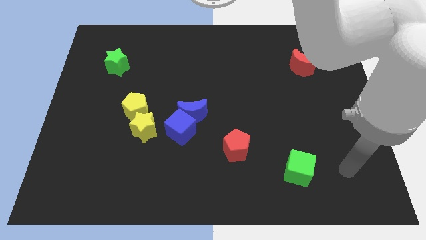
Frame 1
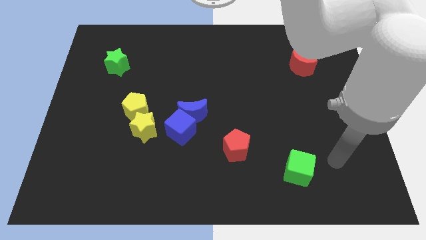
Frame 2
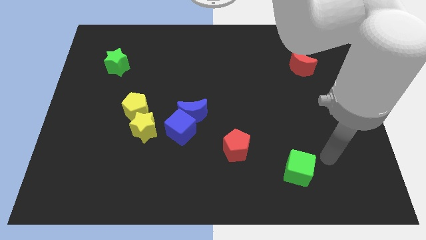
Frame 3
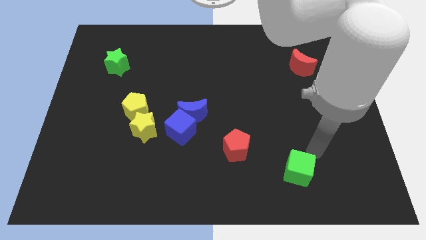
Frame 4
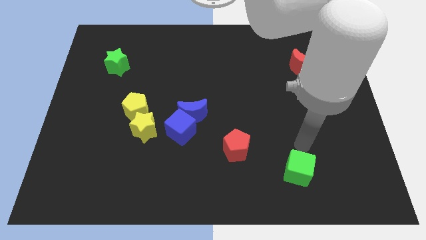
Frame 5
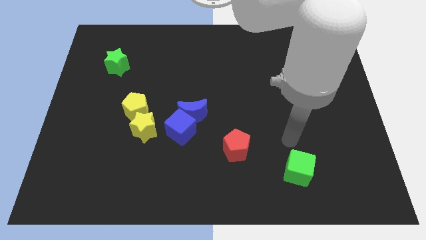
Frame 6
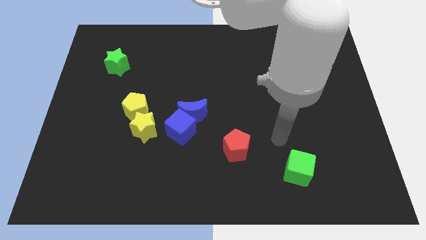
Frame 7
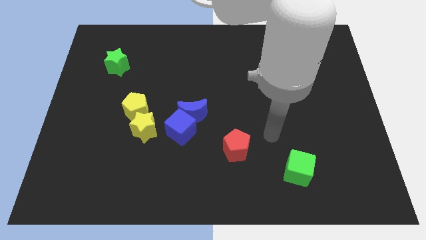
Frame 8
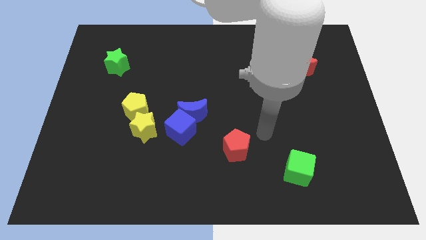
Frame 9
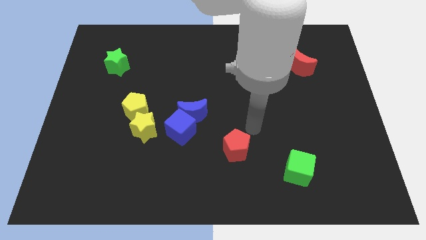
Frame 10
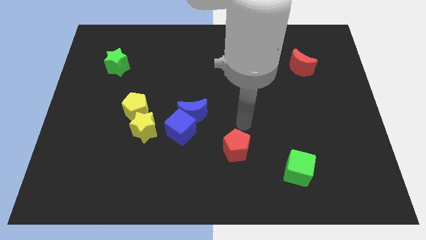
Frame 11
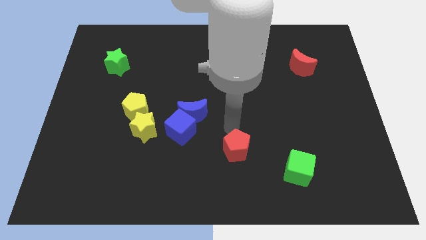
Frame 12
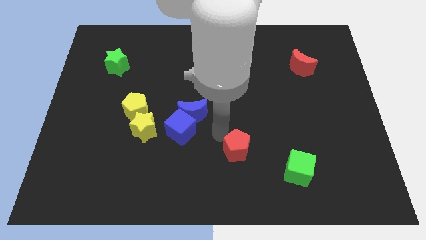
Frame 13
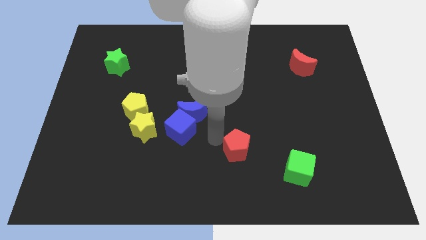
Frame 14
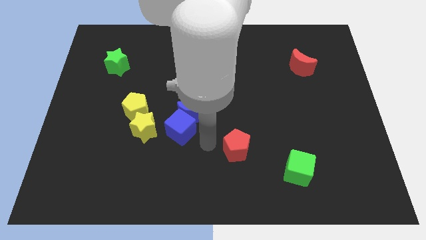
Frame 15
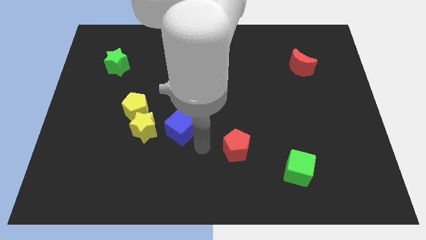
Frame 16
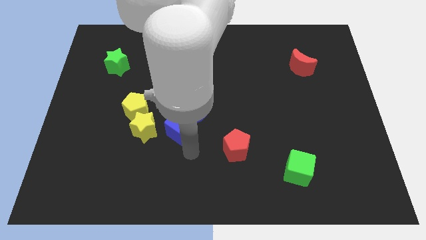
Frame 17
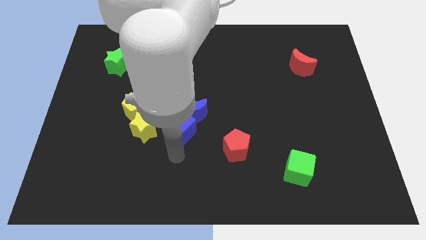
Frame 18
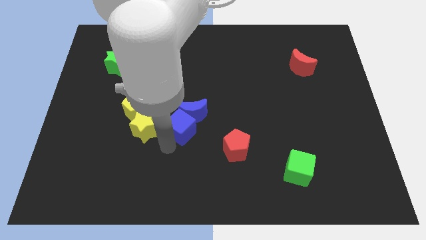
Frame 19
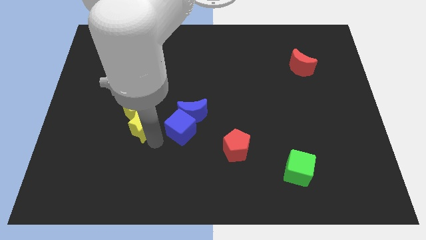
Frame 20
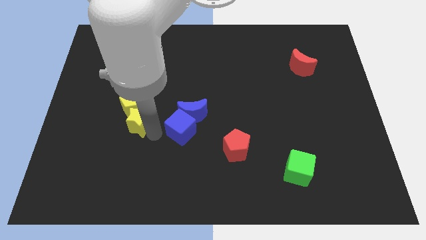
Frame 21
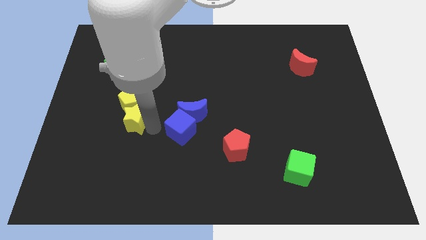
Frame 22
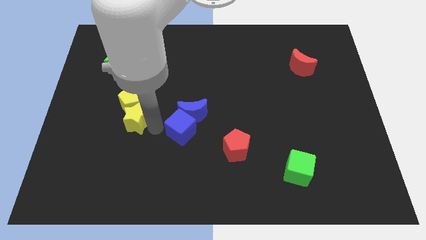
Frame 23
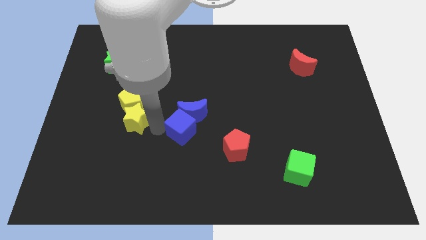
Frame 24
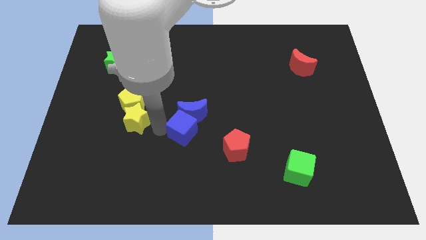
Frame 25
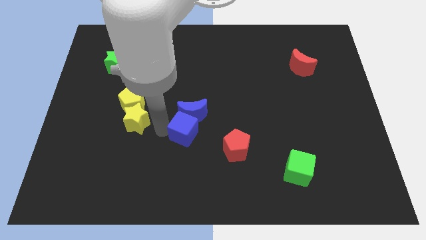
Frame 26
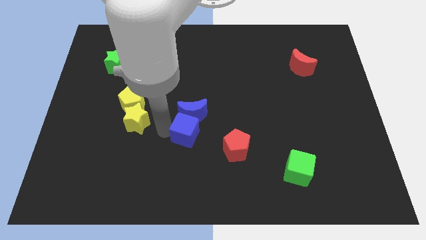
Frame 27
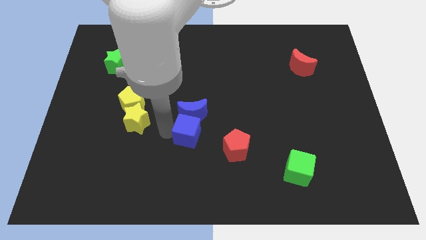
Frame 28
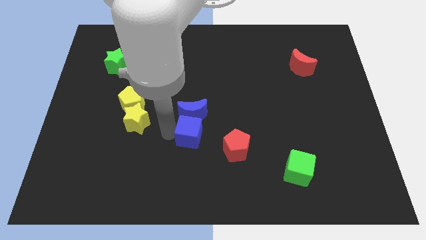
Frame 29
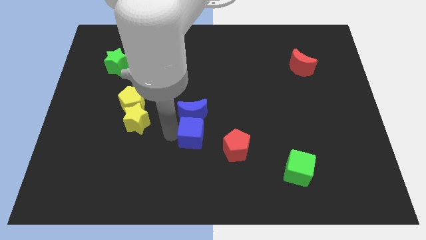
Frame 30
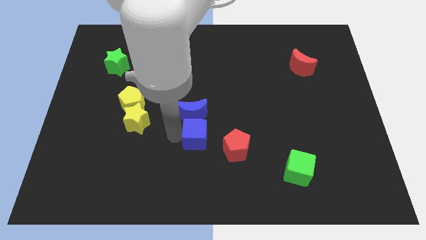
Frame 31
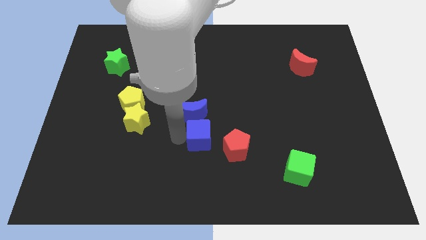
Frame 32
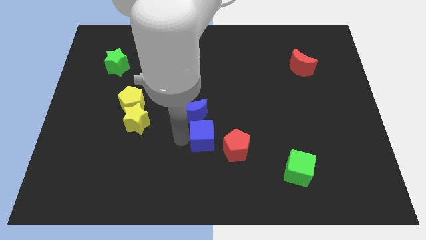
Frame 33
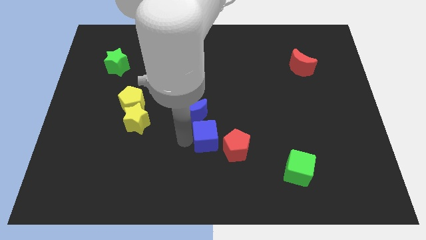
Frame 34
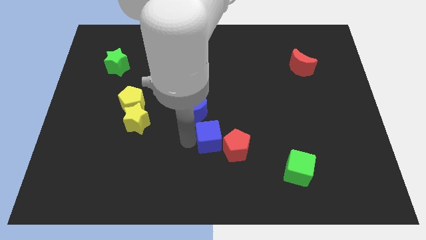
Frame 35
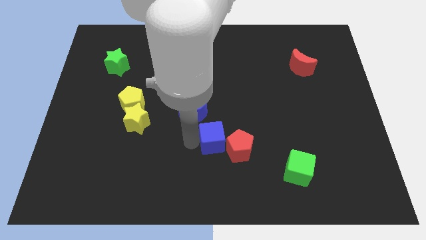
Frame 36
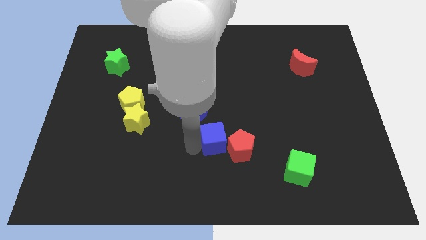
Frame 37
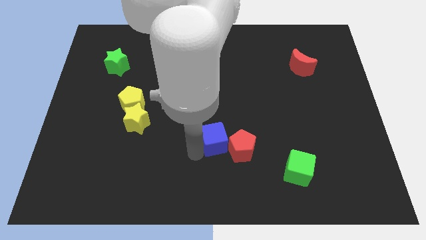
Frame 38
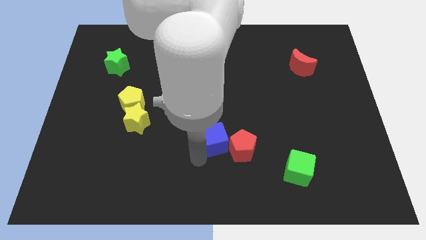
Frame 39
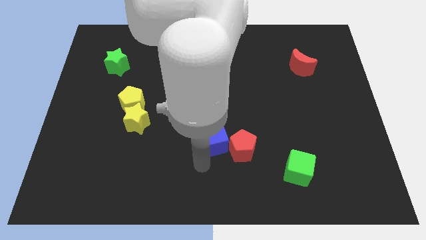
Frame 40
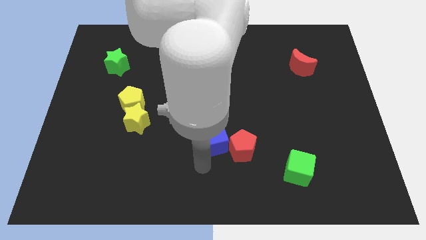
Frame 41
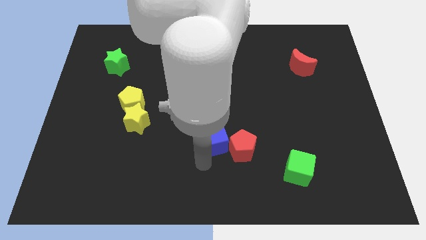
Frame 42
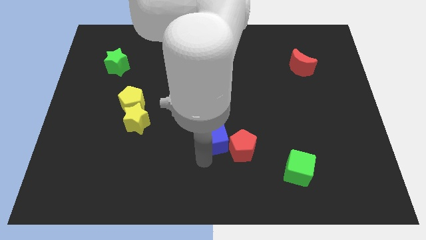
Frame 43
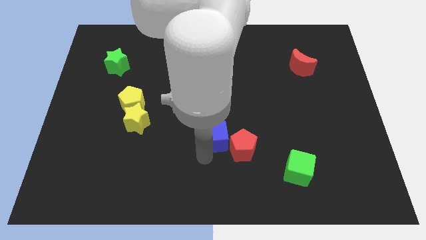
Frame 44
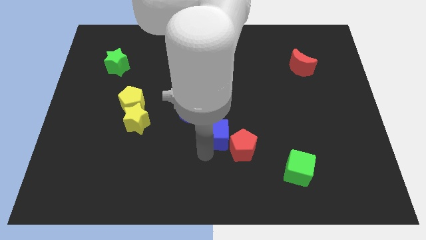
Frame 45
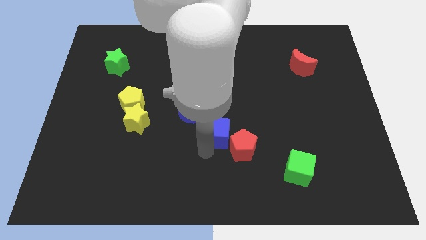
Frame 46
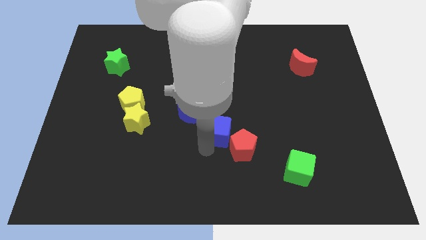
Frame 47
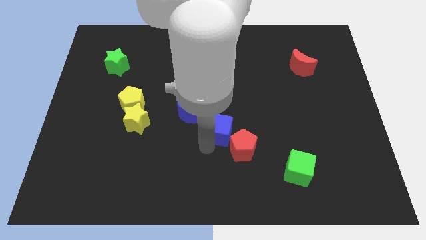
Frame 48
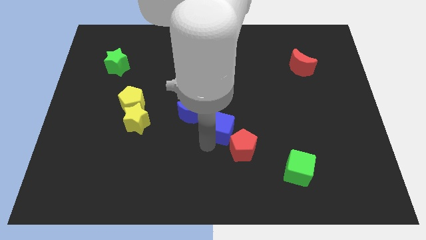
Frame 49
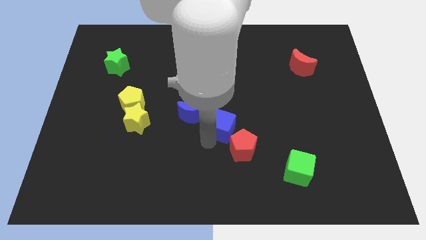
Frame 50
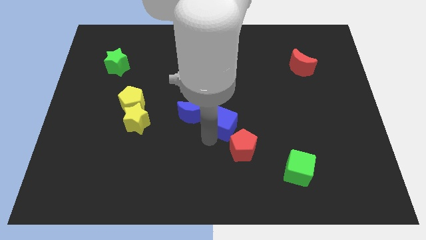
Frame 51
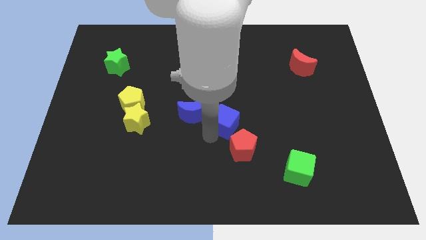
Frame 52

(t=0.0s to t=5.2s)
push the blue cube a little upwards and then right

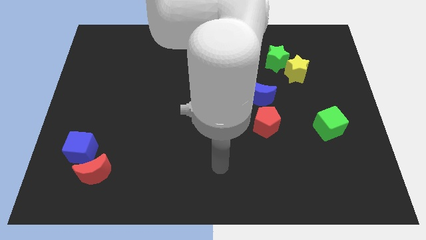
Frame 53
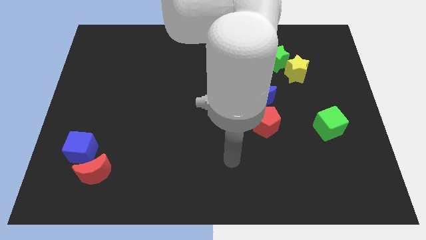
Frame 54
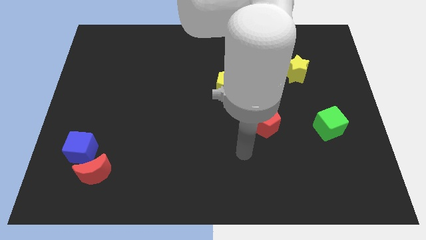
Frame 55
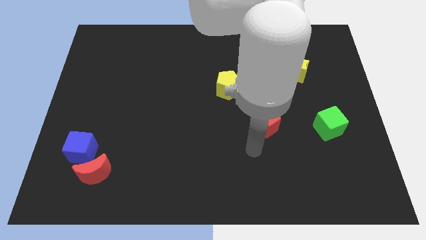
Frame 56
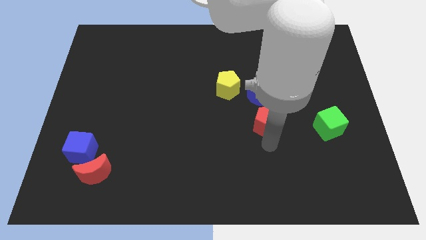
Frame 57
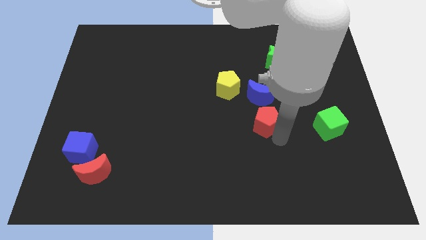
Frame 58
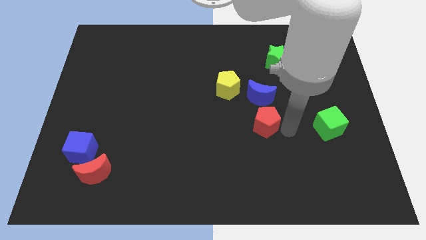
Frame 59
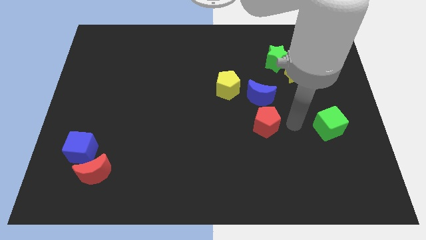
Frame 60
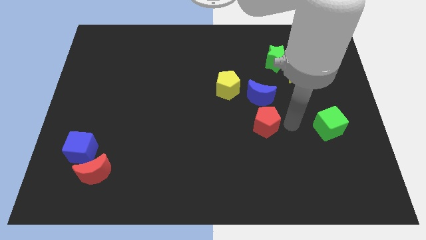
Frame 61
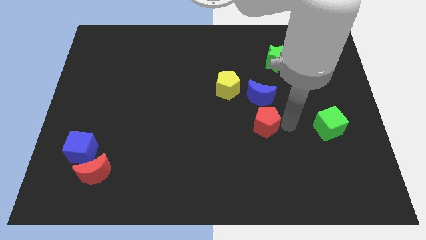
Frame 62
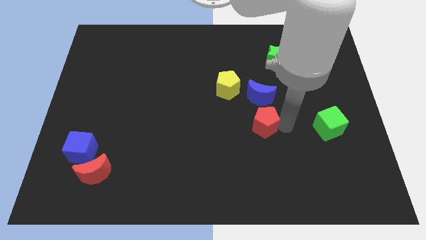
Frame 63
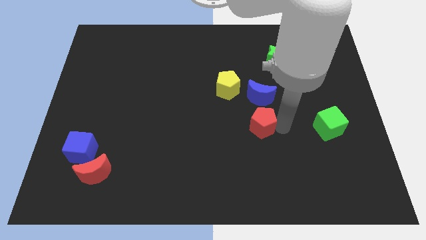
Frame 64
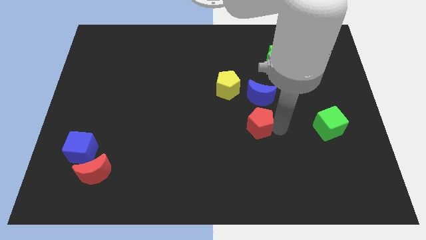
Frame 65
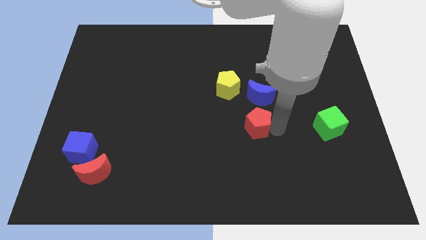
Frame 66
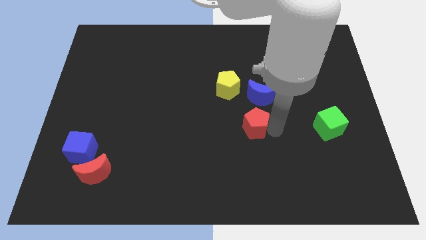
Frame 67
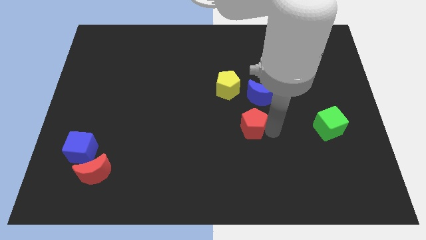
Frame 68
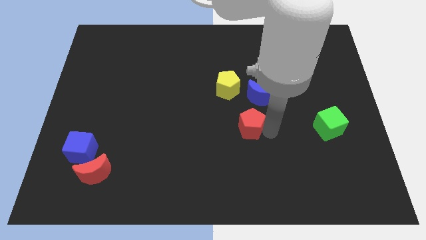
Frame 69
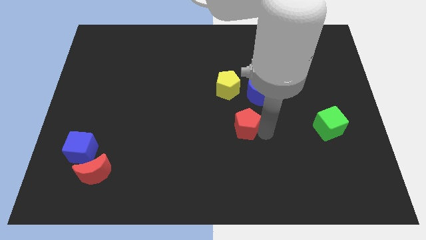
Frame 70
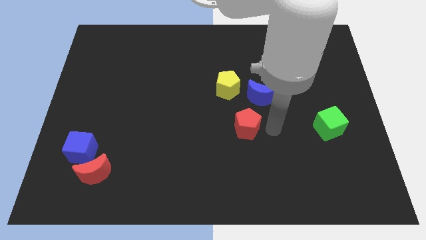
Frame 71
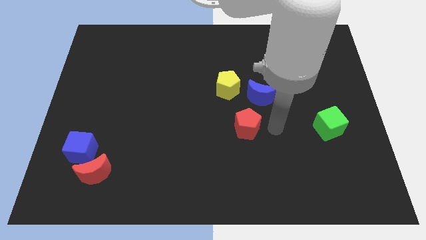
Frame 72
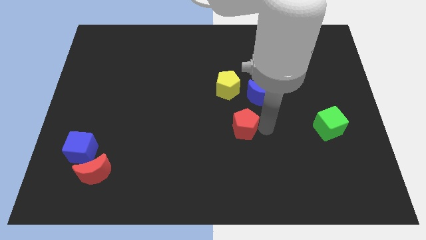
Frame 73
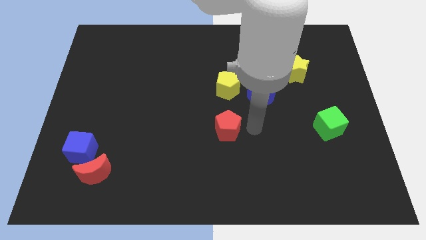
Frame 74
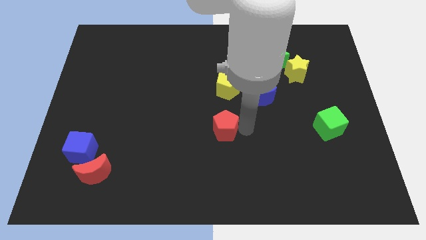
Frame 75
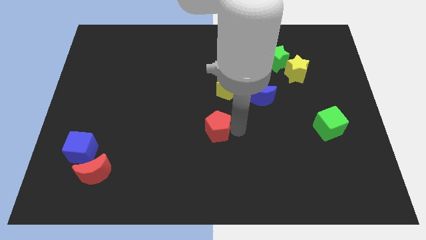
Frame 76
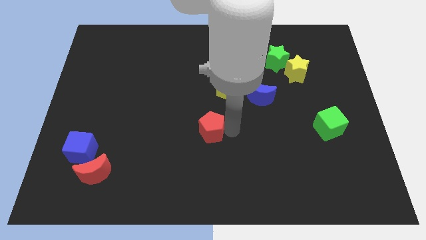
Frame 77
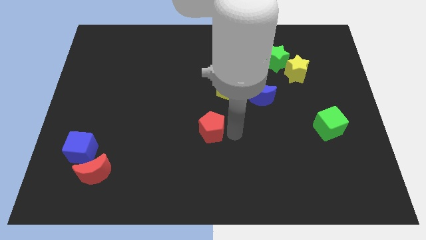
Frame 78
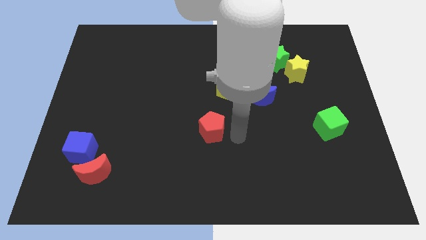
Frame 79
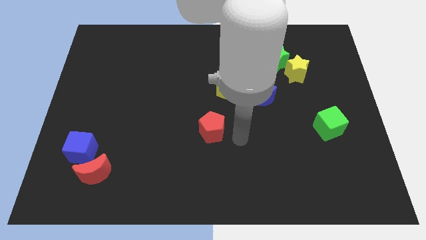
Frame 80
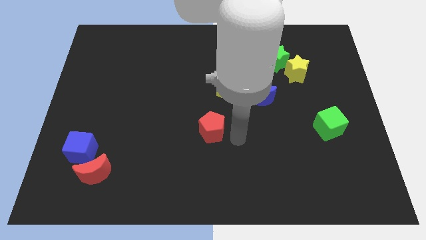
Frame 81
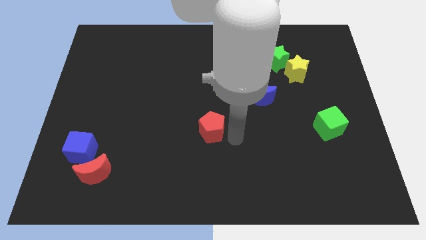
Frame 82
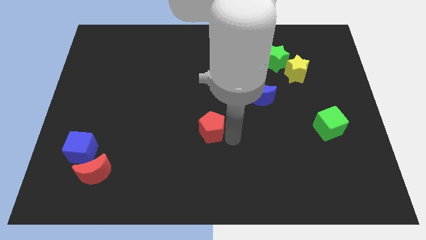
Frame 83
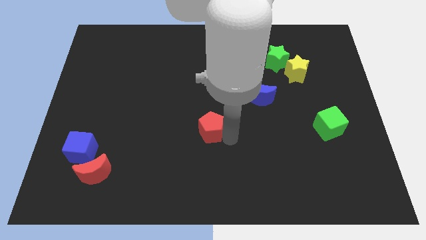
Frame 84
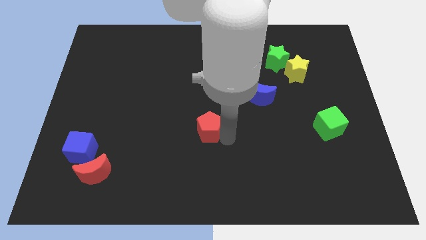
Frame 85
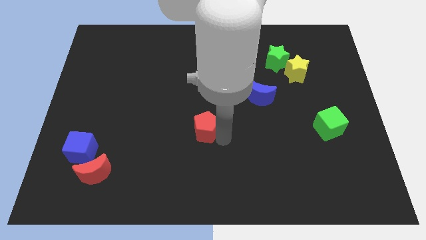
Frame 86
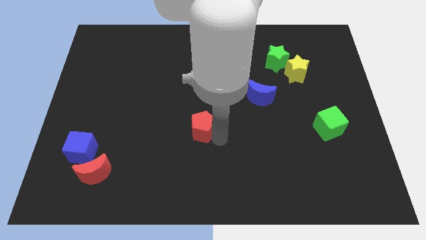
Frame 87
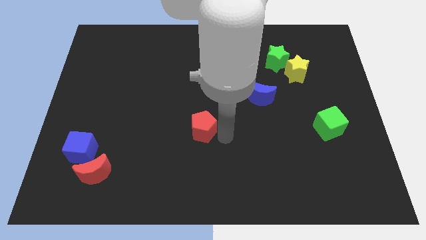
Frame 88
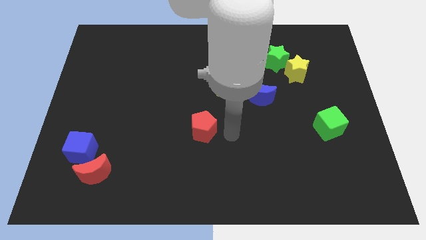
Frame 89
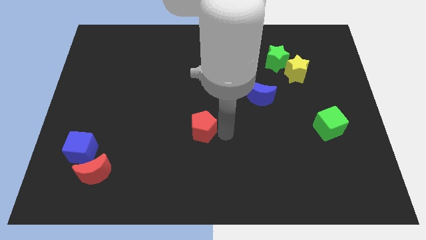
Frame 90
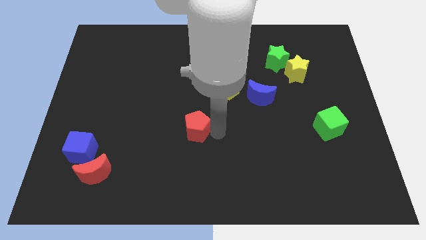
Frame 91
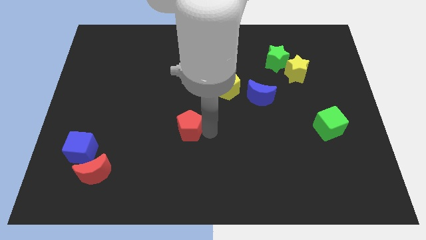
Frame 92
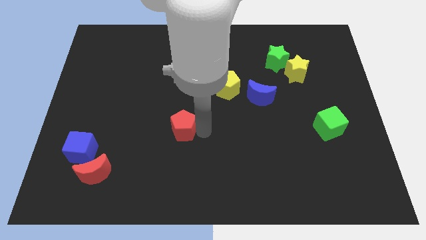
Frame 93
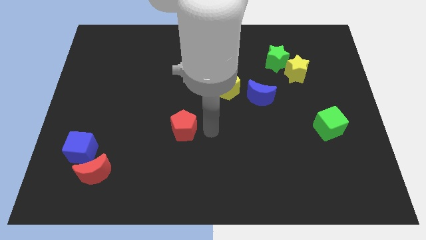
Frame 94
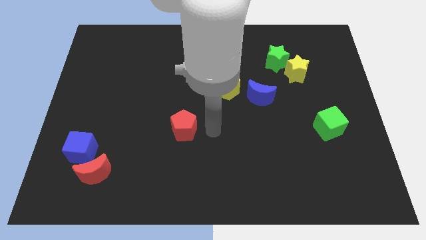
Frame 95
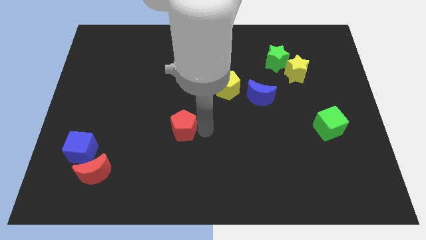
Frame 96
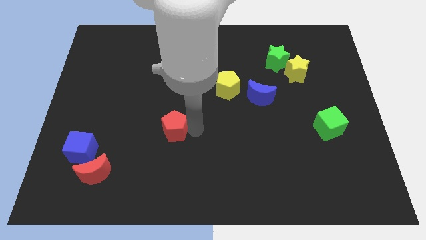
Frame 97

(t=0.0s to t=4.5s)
push the red pentagon to the left
